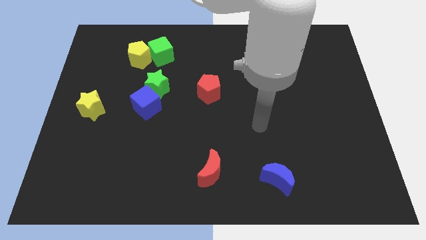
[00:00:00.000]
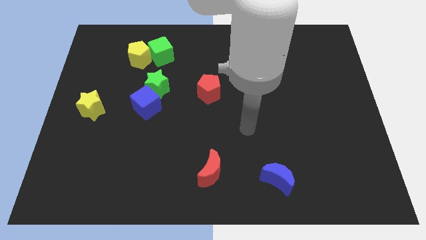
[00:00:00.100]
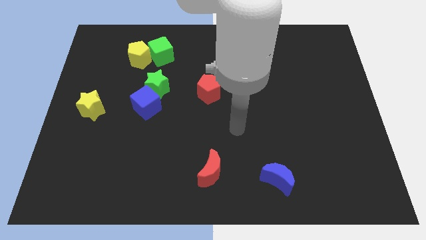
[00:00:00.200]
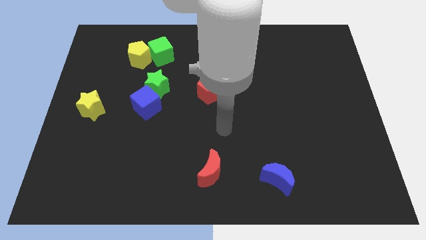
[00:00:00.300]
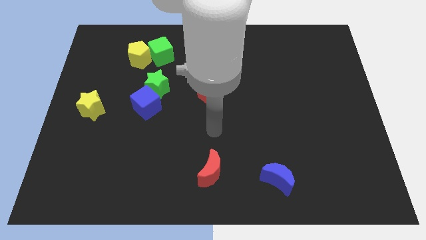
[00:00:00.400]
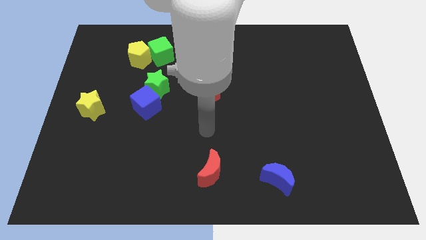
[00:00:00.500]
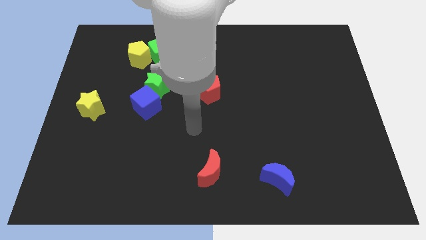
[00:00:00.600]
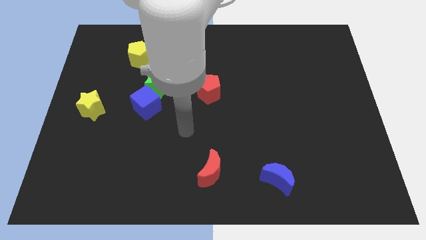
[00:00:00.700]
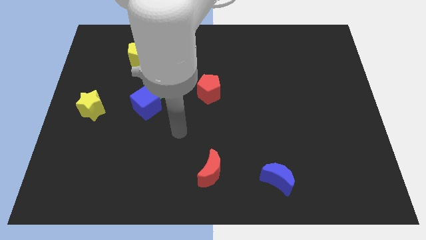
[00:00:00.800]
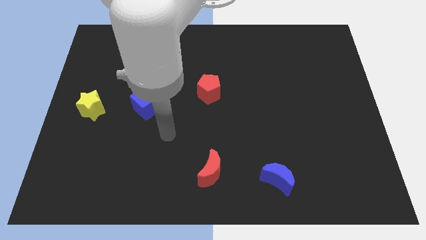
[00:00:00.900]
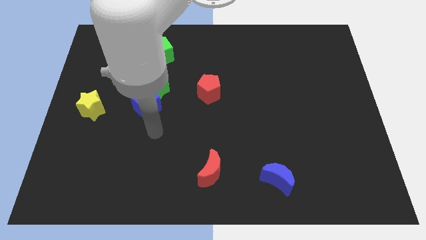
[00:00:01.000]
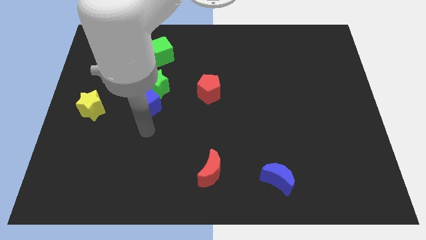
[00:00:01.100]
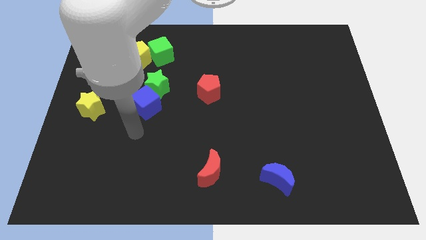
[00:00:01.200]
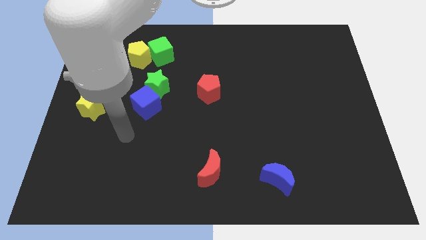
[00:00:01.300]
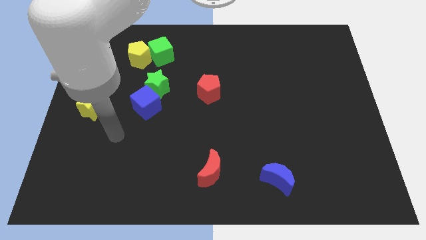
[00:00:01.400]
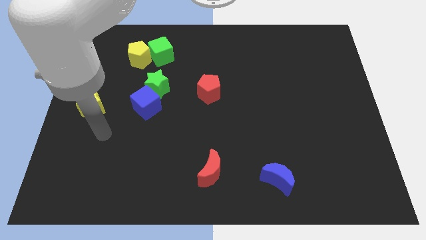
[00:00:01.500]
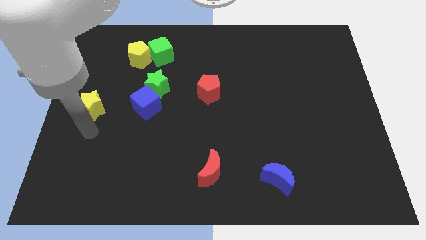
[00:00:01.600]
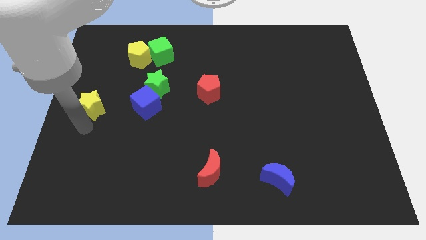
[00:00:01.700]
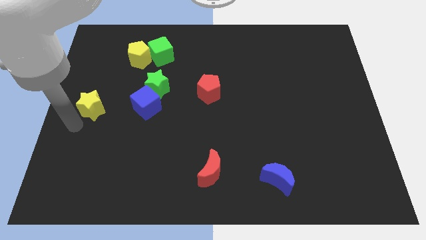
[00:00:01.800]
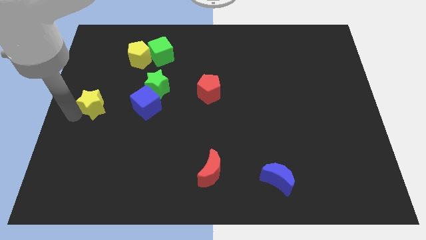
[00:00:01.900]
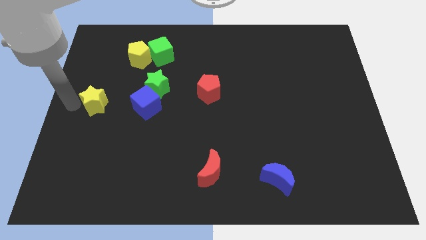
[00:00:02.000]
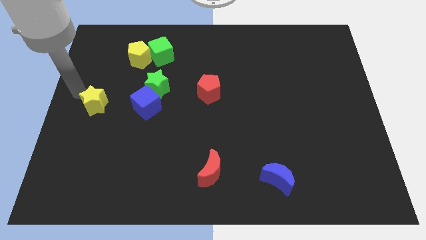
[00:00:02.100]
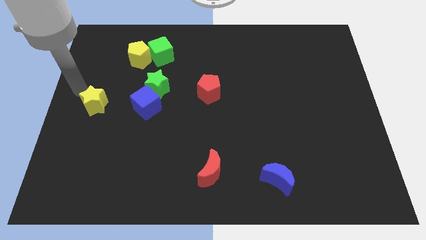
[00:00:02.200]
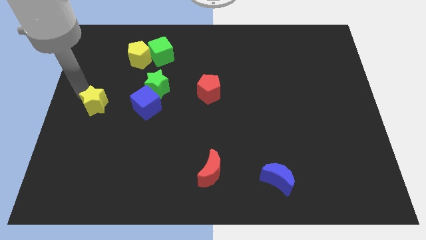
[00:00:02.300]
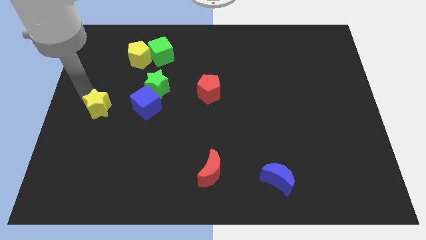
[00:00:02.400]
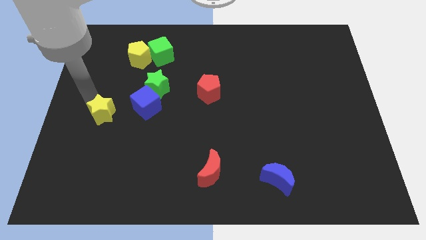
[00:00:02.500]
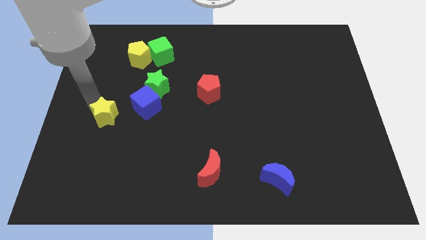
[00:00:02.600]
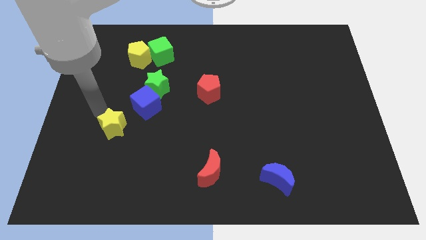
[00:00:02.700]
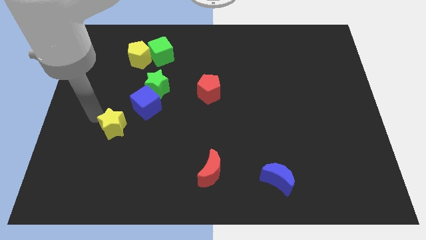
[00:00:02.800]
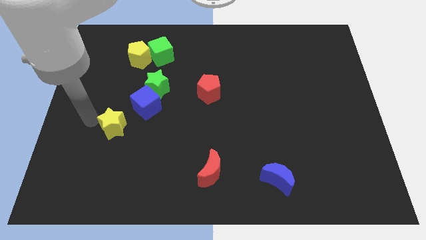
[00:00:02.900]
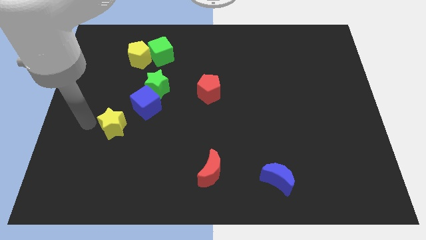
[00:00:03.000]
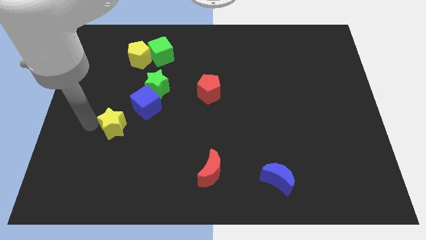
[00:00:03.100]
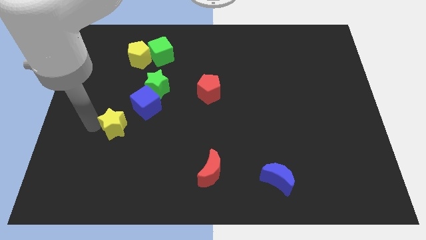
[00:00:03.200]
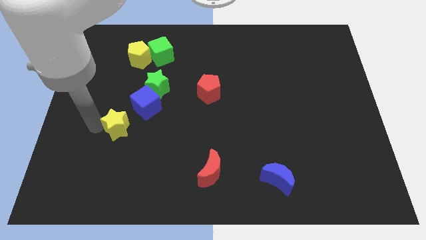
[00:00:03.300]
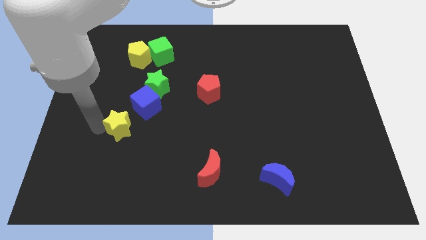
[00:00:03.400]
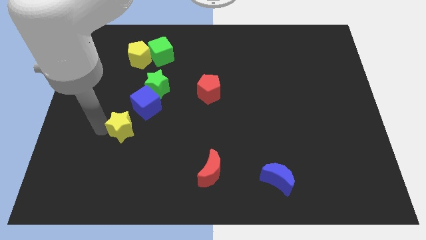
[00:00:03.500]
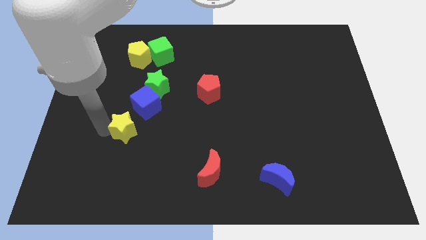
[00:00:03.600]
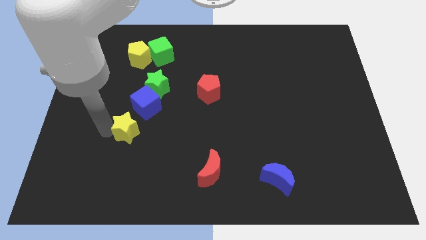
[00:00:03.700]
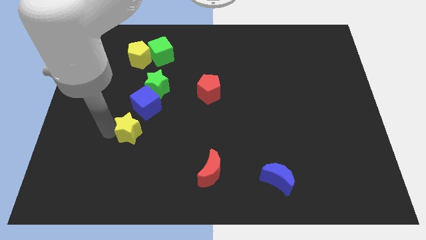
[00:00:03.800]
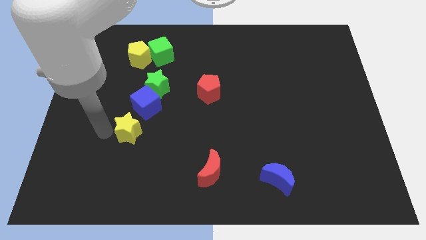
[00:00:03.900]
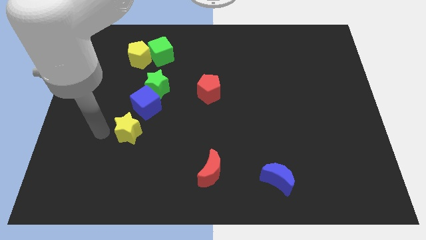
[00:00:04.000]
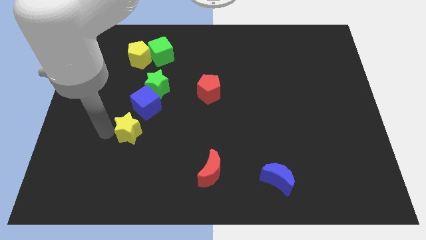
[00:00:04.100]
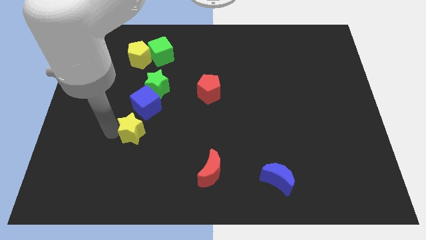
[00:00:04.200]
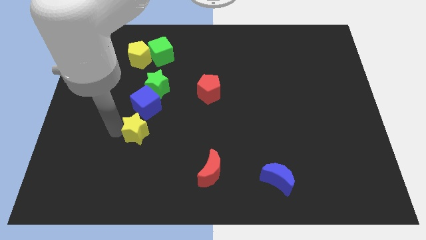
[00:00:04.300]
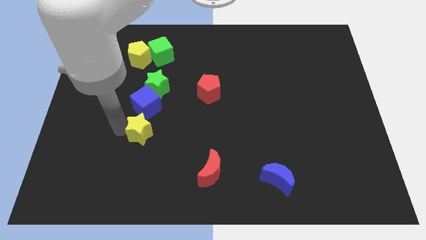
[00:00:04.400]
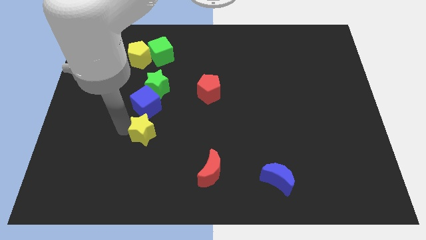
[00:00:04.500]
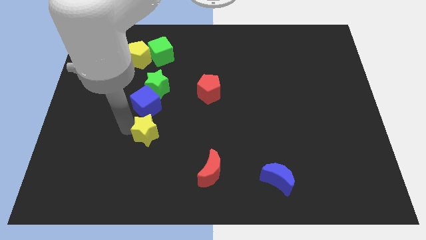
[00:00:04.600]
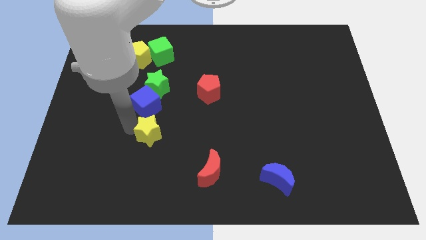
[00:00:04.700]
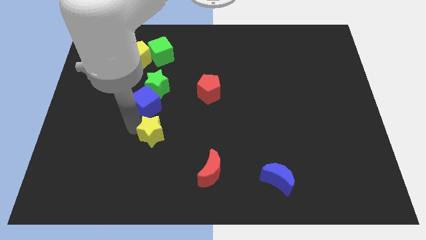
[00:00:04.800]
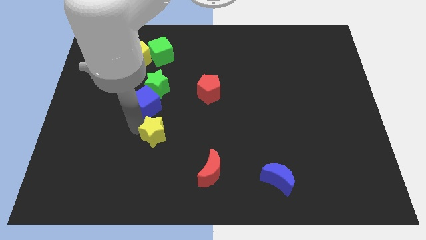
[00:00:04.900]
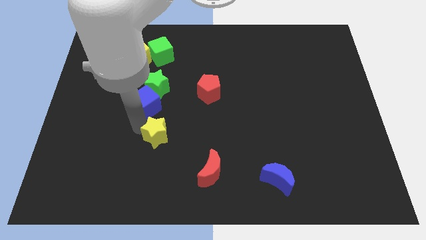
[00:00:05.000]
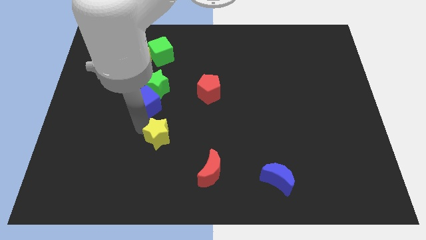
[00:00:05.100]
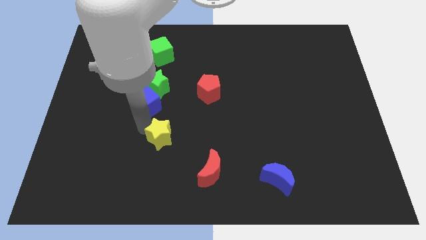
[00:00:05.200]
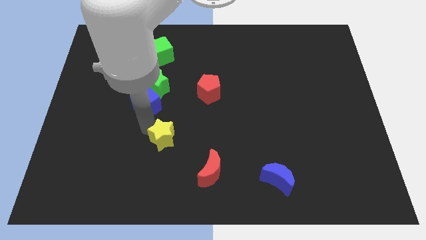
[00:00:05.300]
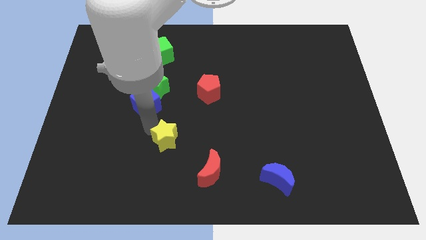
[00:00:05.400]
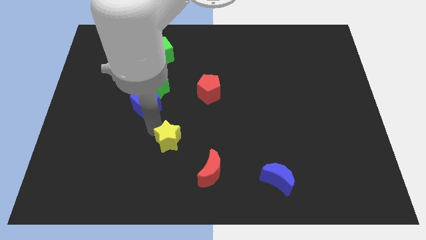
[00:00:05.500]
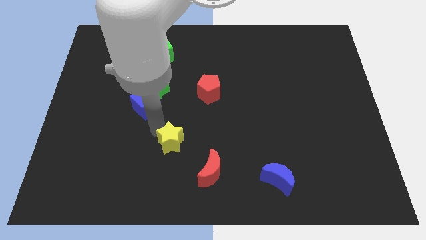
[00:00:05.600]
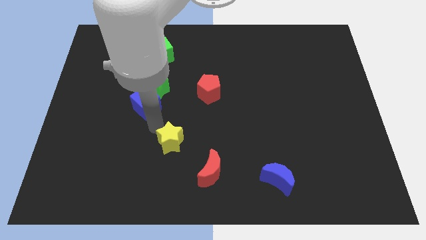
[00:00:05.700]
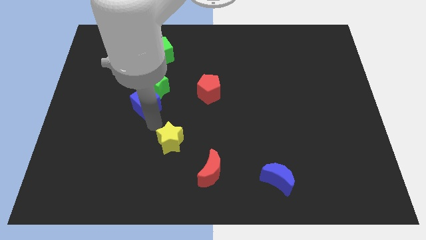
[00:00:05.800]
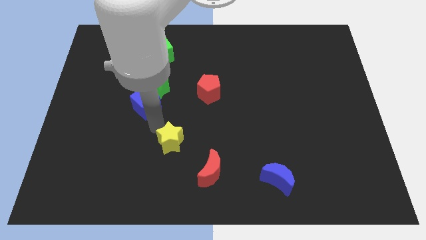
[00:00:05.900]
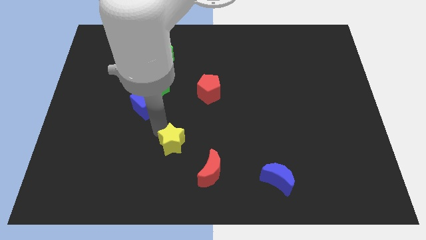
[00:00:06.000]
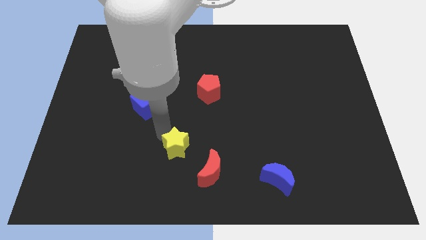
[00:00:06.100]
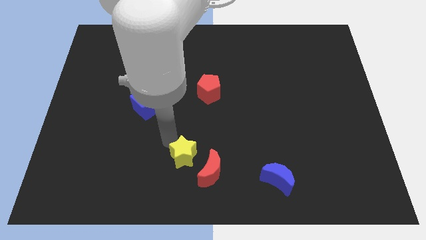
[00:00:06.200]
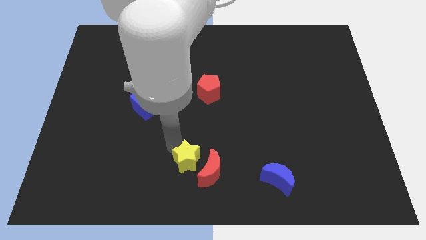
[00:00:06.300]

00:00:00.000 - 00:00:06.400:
move the yellow star to the red moon

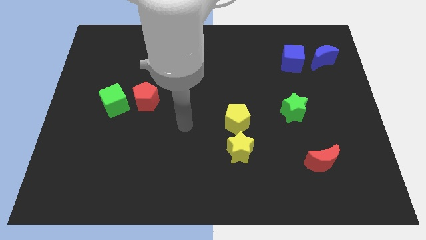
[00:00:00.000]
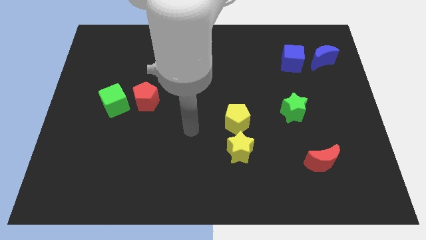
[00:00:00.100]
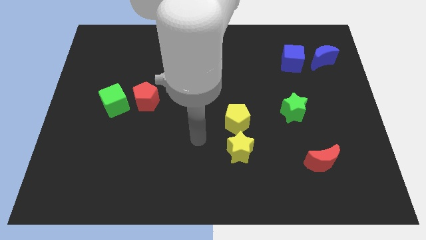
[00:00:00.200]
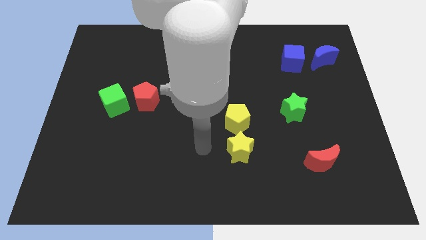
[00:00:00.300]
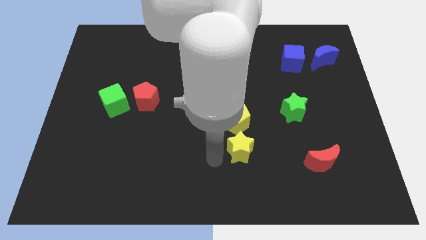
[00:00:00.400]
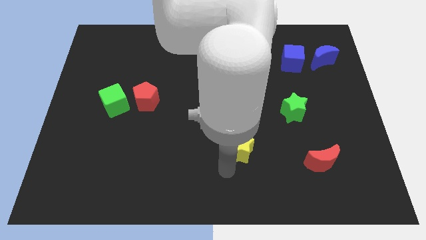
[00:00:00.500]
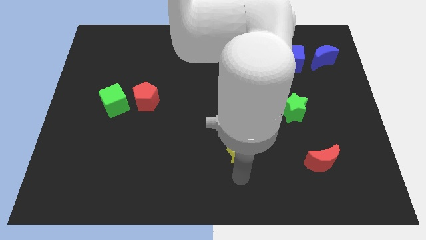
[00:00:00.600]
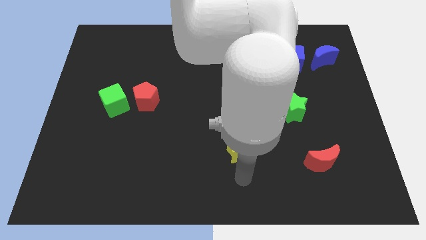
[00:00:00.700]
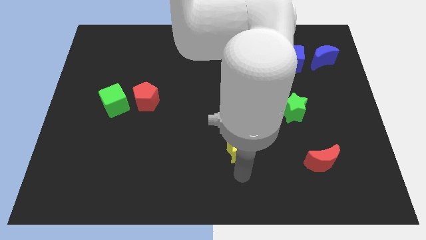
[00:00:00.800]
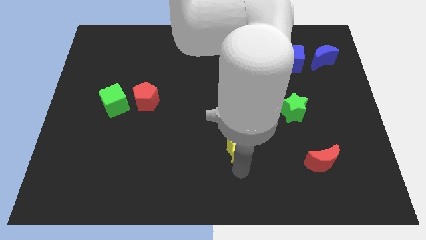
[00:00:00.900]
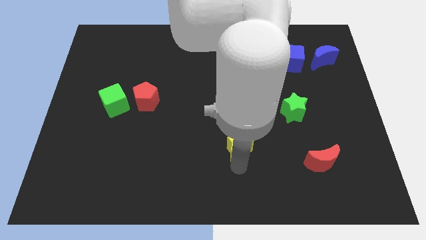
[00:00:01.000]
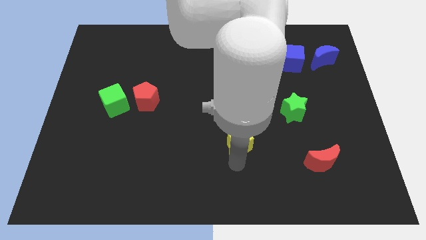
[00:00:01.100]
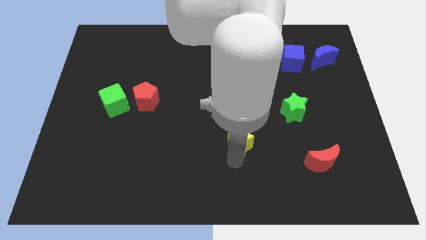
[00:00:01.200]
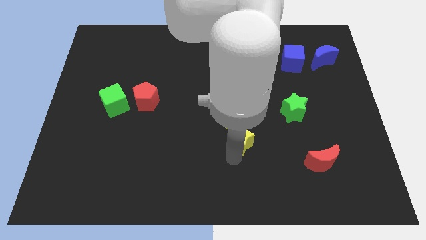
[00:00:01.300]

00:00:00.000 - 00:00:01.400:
slide the yellow star to the yellow pentagon
